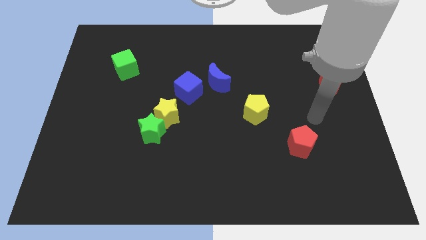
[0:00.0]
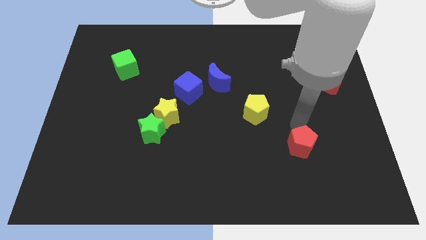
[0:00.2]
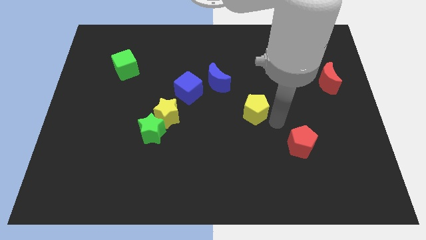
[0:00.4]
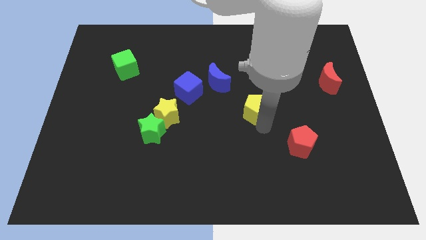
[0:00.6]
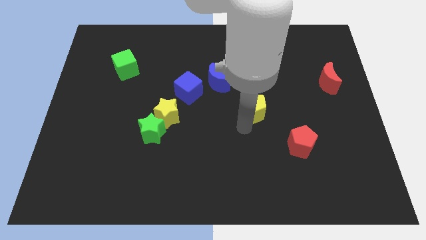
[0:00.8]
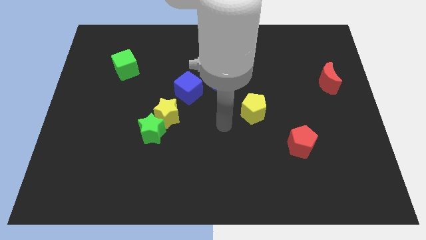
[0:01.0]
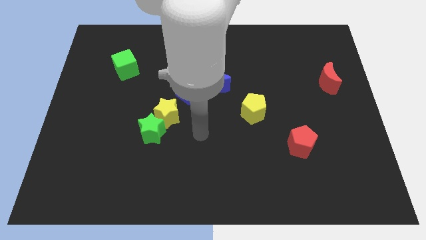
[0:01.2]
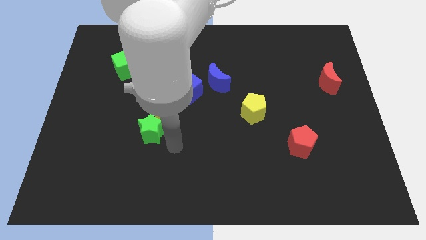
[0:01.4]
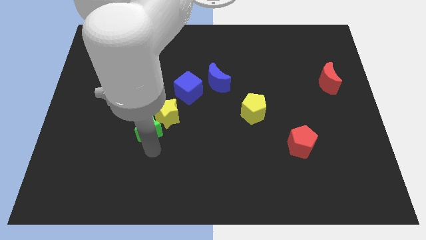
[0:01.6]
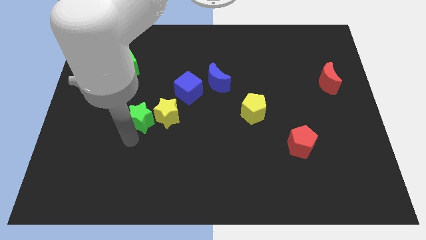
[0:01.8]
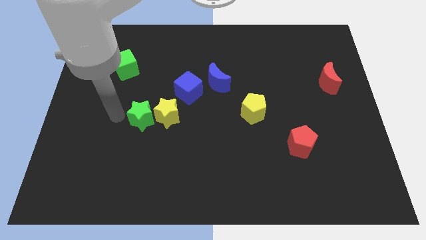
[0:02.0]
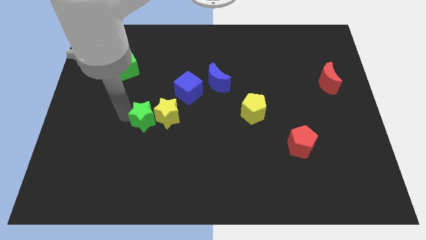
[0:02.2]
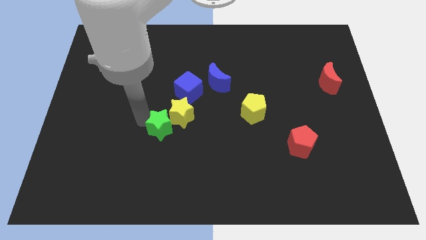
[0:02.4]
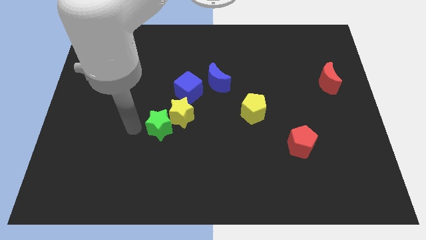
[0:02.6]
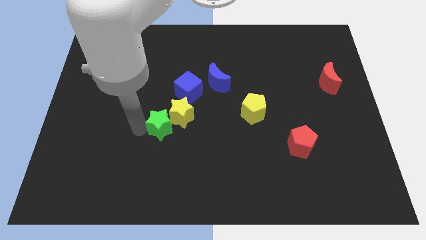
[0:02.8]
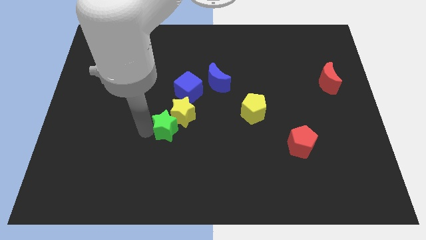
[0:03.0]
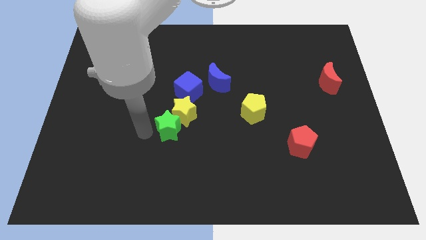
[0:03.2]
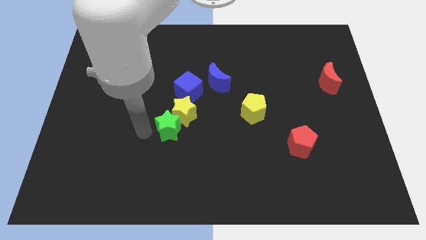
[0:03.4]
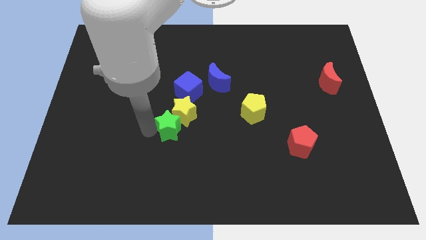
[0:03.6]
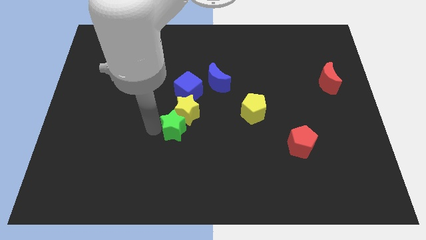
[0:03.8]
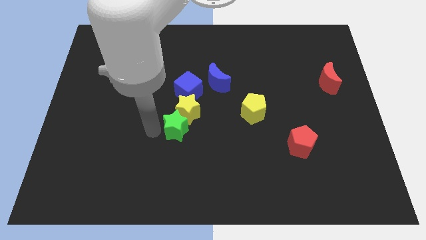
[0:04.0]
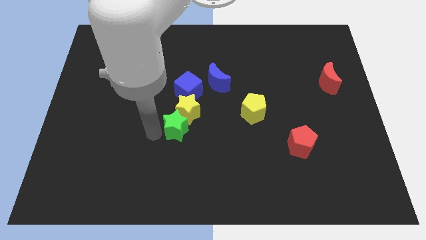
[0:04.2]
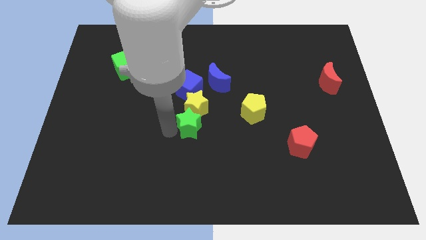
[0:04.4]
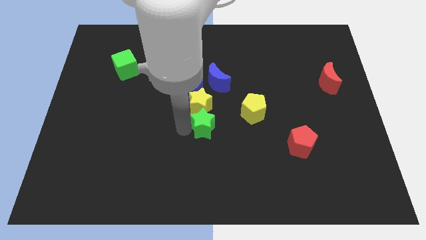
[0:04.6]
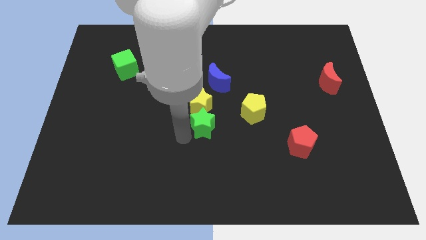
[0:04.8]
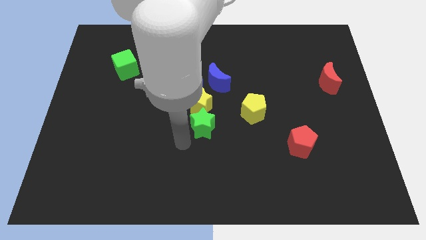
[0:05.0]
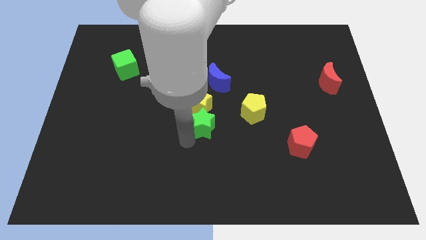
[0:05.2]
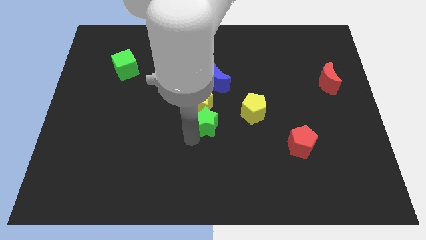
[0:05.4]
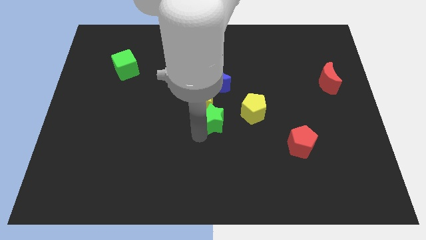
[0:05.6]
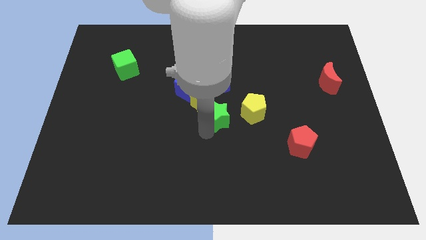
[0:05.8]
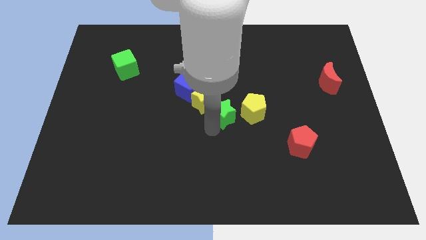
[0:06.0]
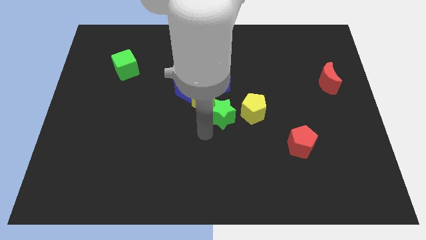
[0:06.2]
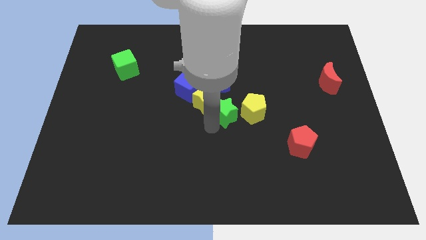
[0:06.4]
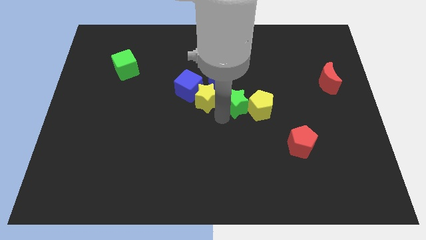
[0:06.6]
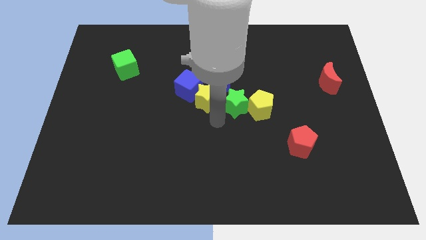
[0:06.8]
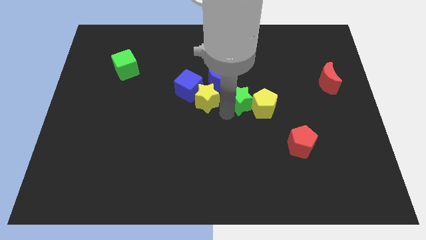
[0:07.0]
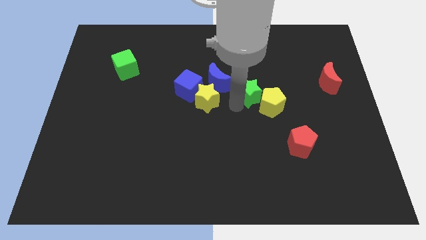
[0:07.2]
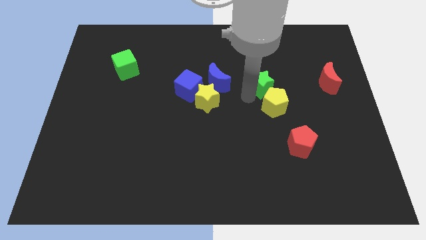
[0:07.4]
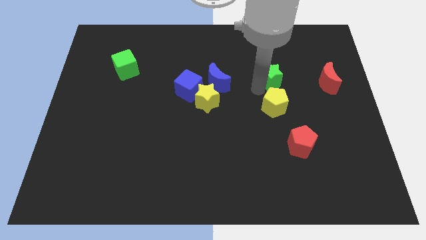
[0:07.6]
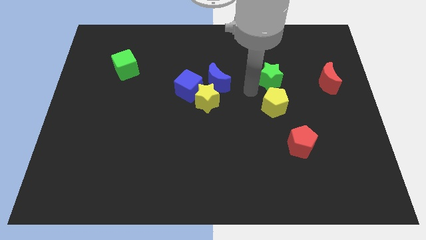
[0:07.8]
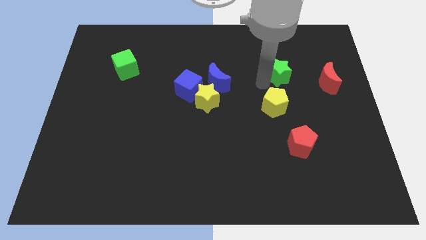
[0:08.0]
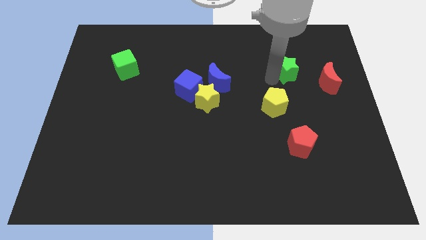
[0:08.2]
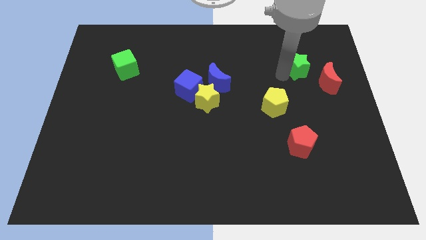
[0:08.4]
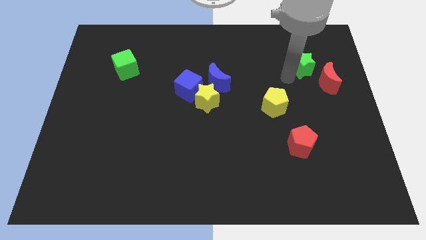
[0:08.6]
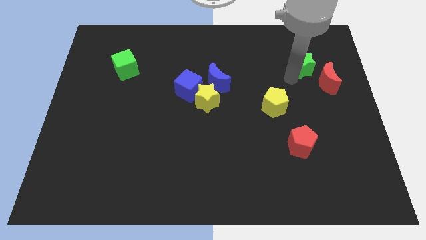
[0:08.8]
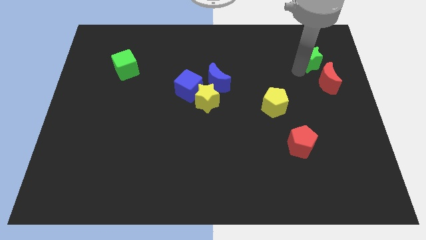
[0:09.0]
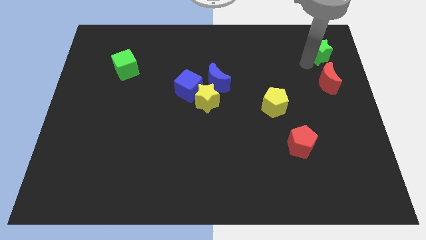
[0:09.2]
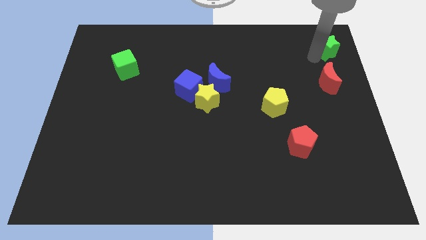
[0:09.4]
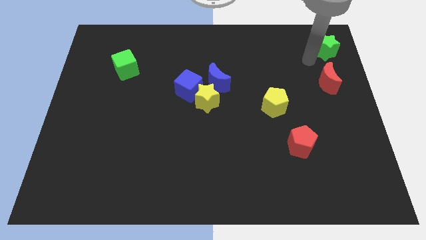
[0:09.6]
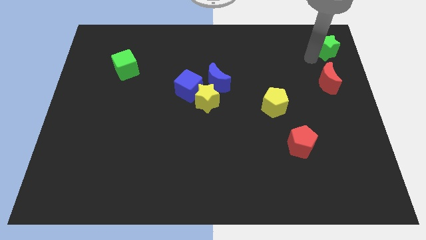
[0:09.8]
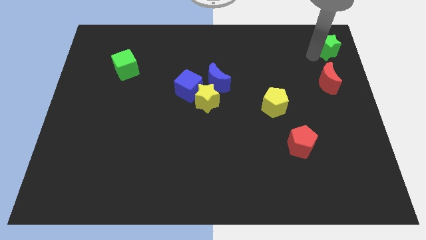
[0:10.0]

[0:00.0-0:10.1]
put the green star to the top right

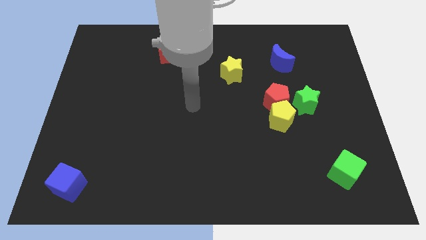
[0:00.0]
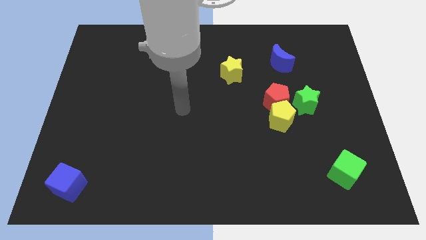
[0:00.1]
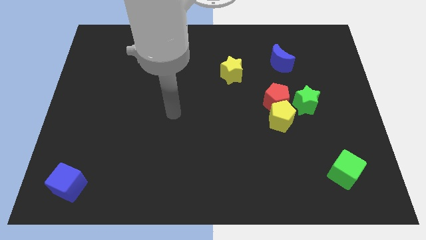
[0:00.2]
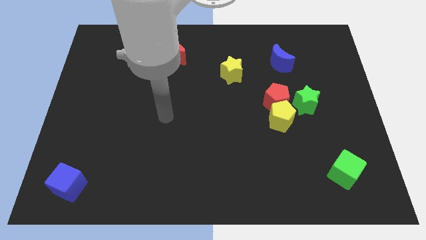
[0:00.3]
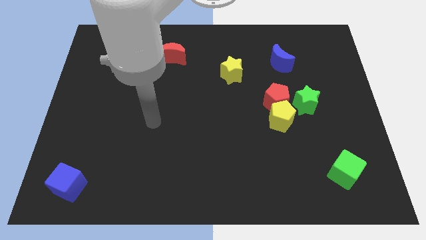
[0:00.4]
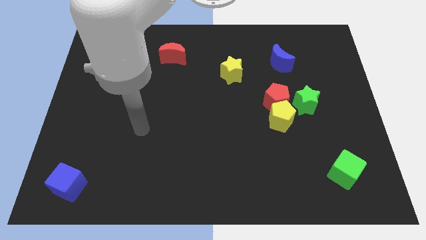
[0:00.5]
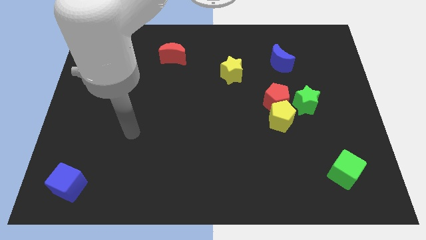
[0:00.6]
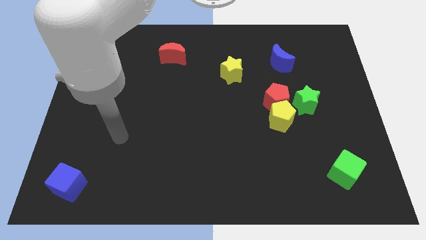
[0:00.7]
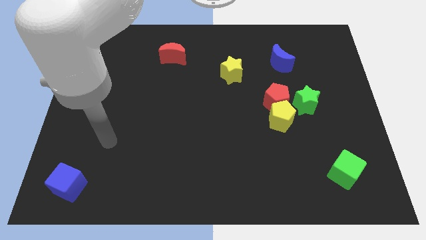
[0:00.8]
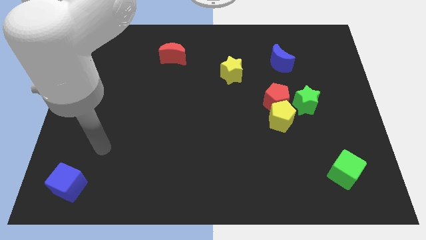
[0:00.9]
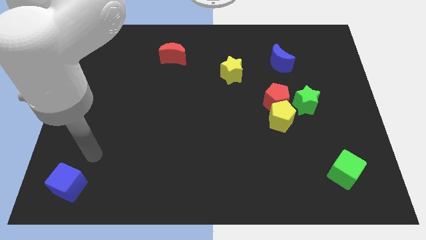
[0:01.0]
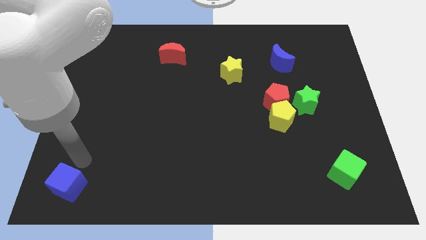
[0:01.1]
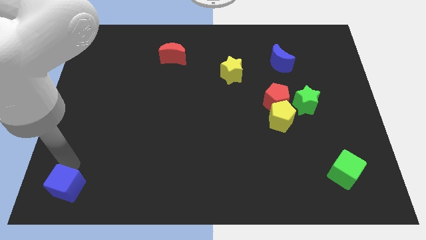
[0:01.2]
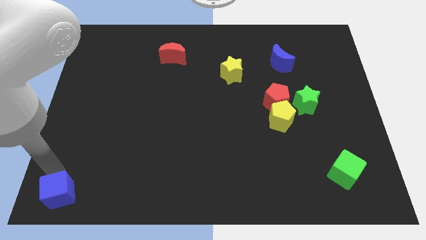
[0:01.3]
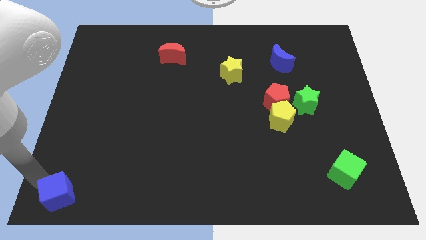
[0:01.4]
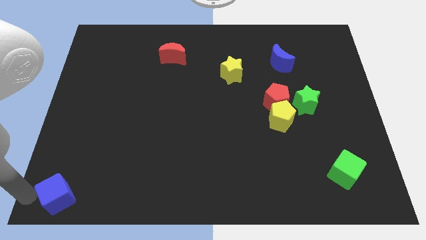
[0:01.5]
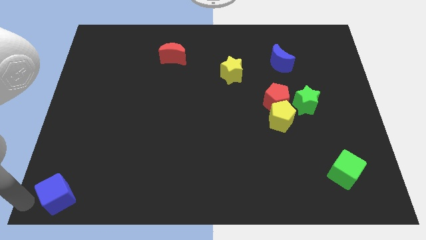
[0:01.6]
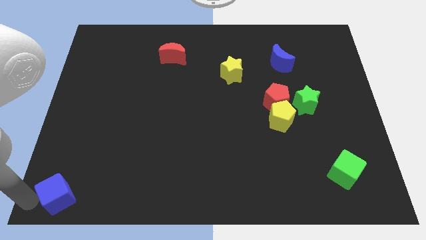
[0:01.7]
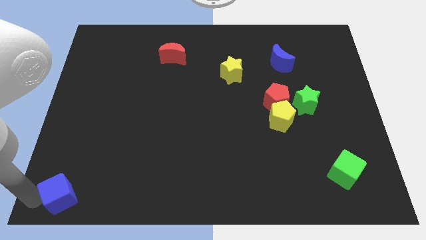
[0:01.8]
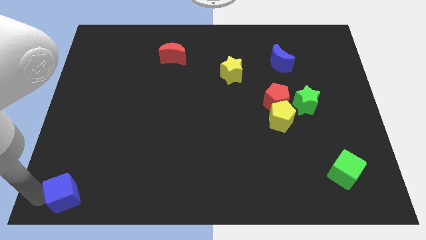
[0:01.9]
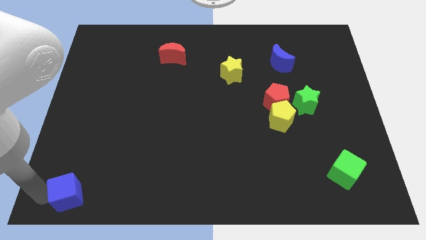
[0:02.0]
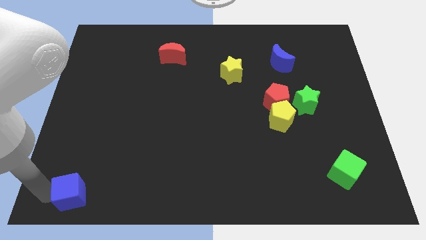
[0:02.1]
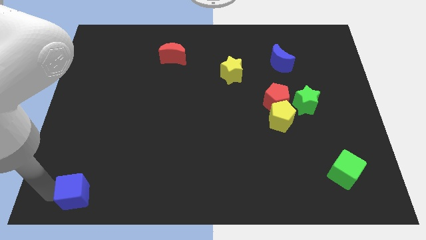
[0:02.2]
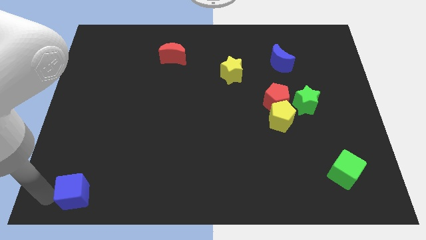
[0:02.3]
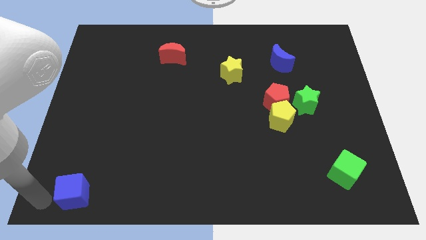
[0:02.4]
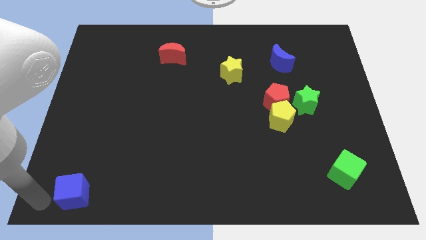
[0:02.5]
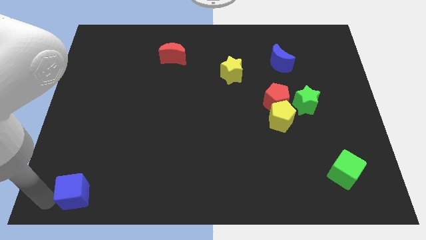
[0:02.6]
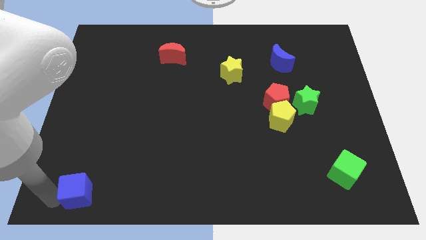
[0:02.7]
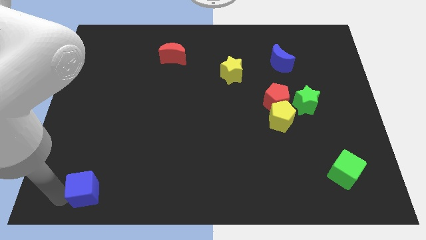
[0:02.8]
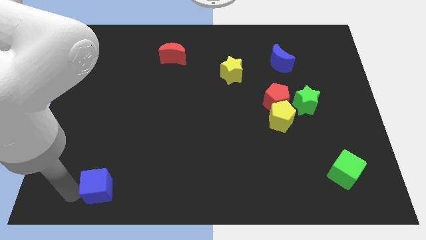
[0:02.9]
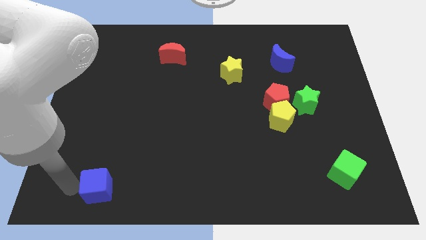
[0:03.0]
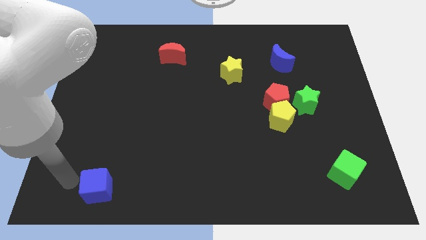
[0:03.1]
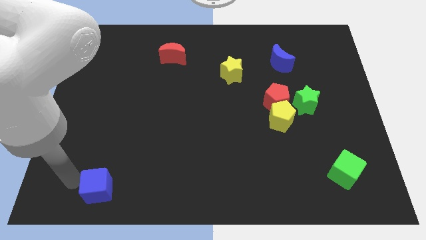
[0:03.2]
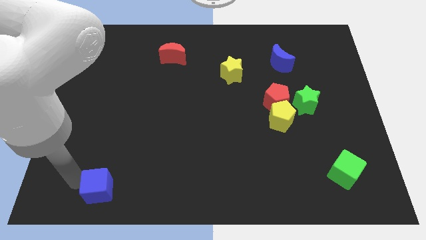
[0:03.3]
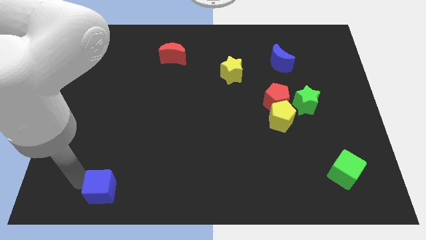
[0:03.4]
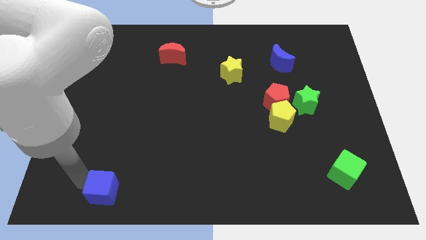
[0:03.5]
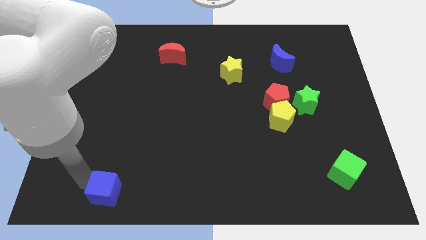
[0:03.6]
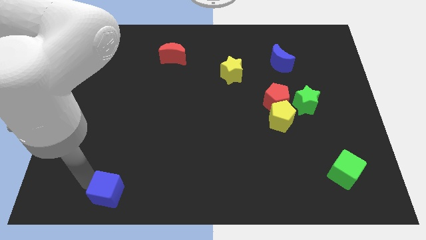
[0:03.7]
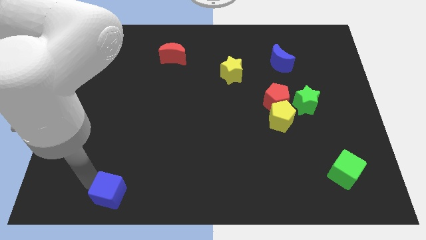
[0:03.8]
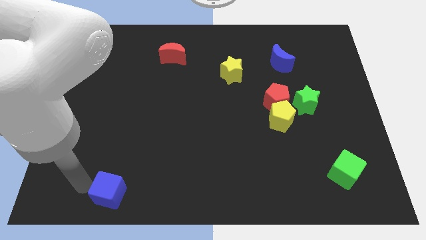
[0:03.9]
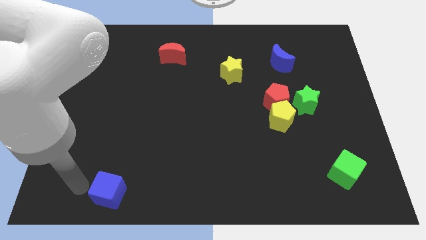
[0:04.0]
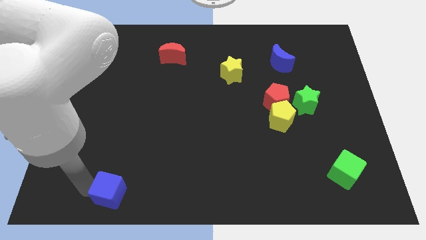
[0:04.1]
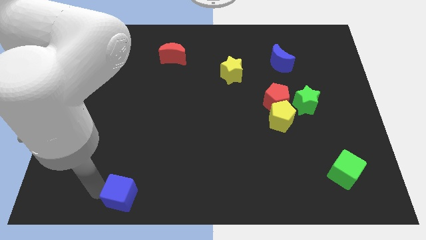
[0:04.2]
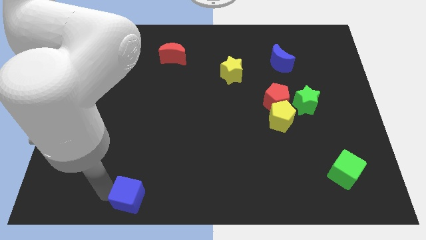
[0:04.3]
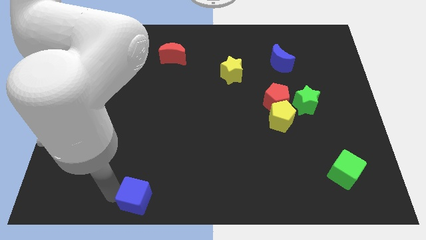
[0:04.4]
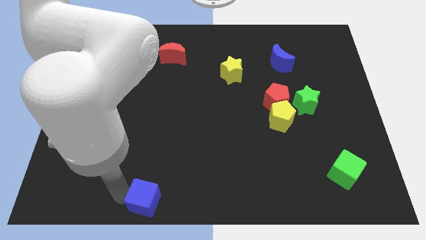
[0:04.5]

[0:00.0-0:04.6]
slide the blue cube to the bottom
